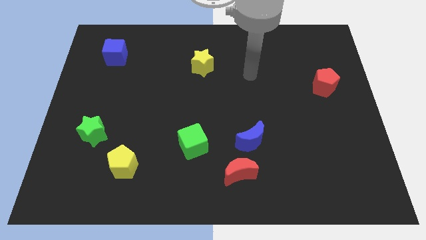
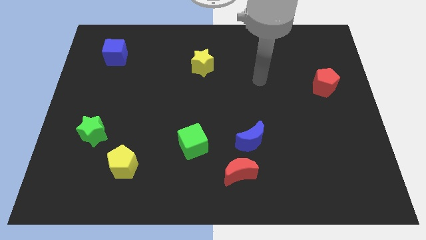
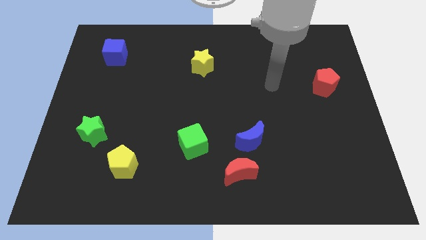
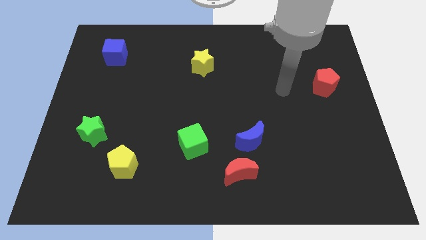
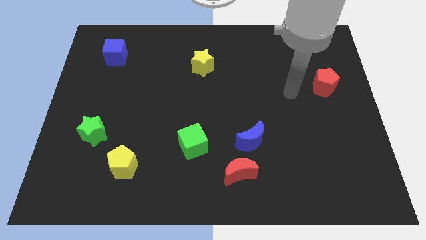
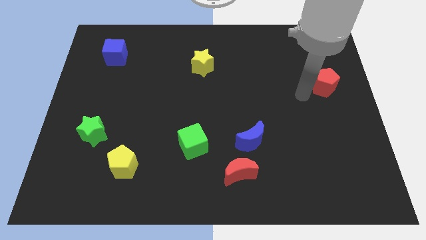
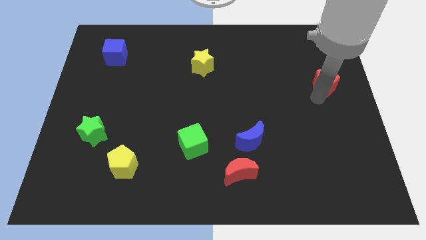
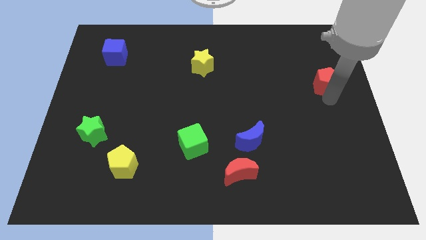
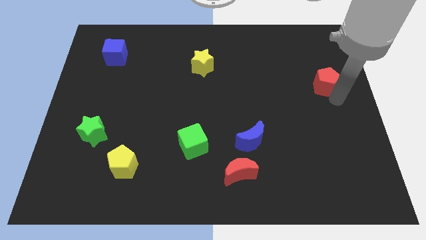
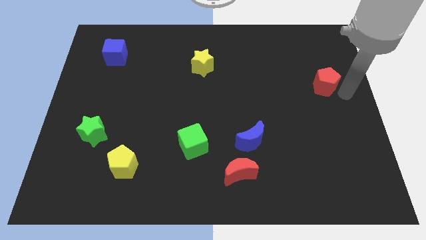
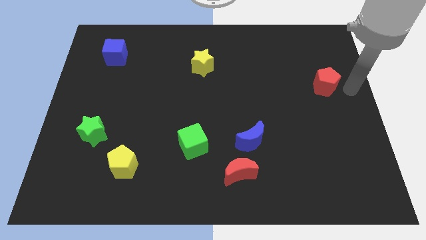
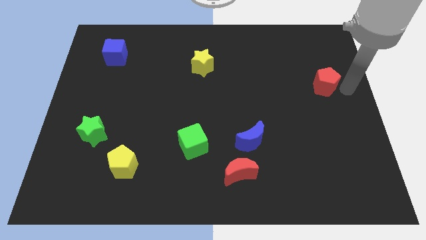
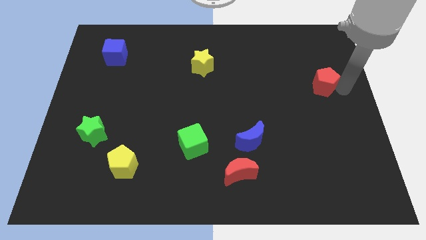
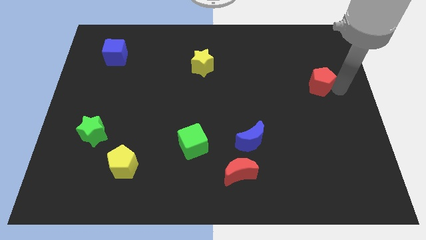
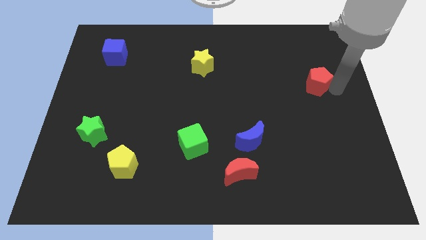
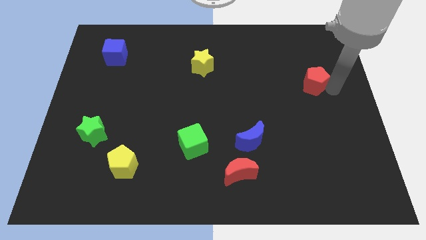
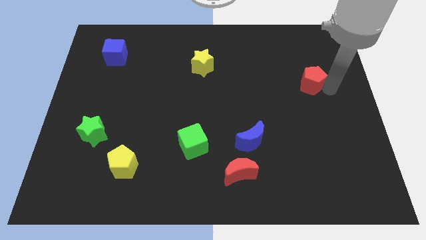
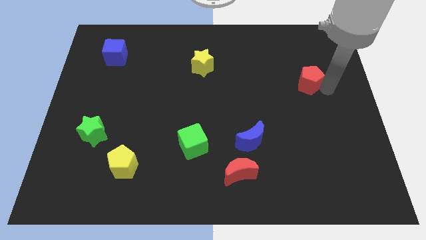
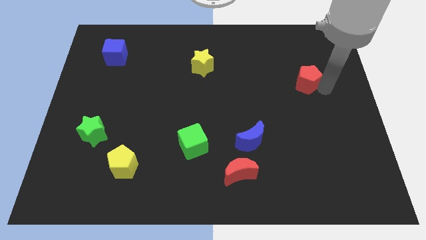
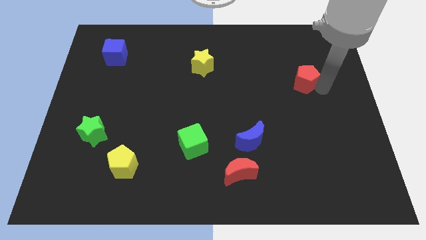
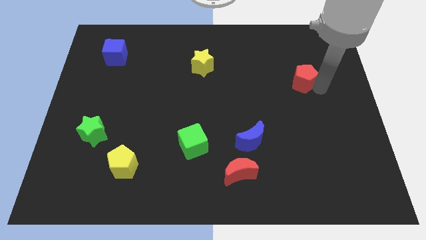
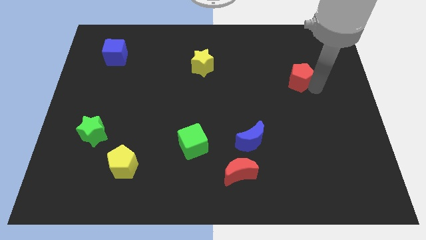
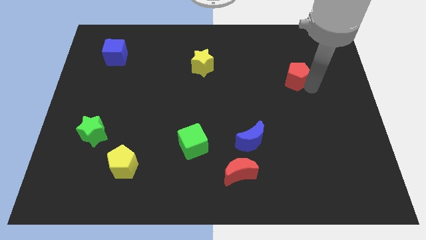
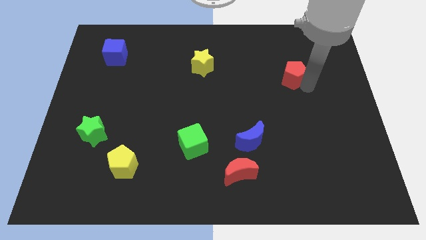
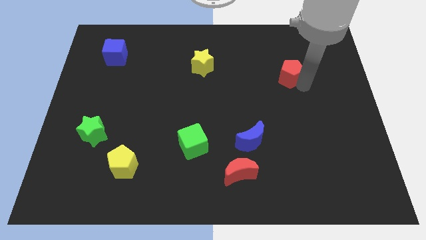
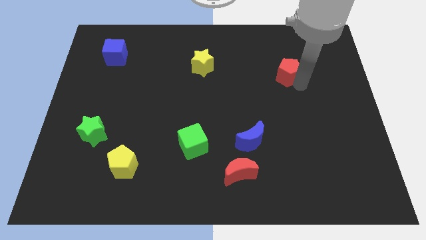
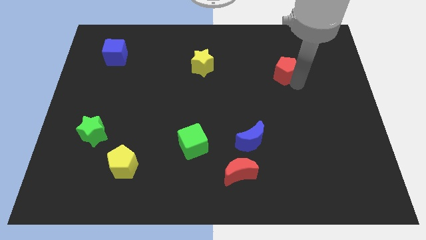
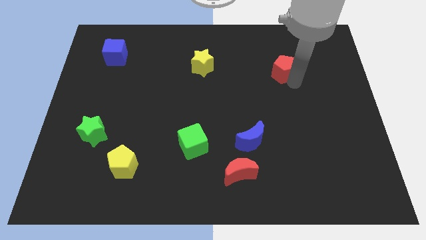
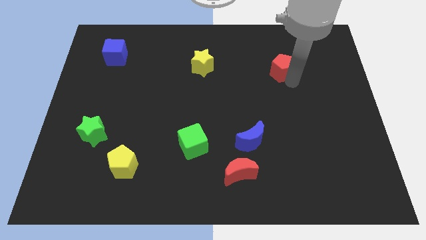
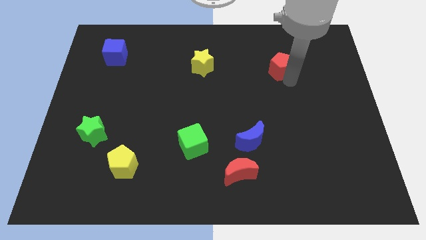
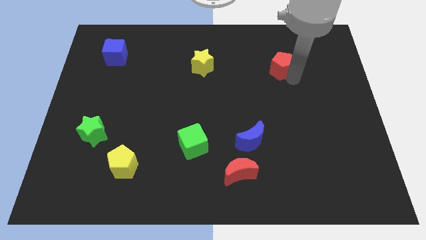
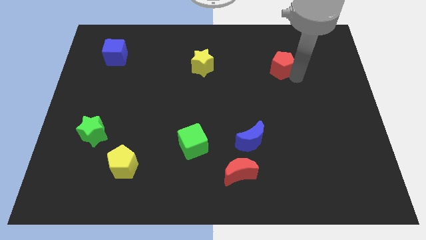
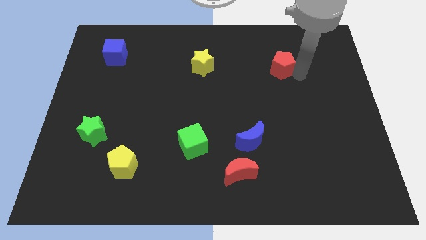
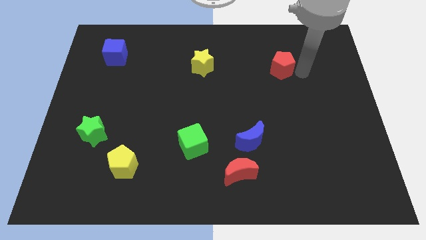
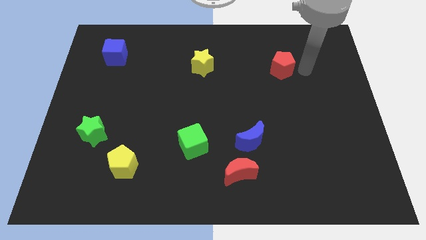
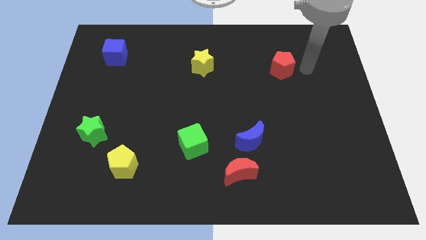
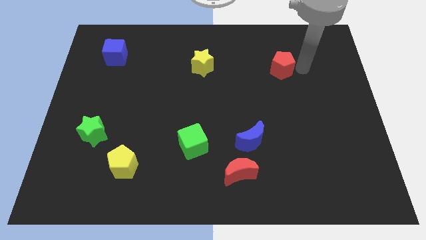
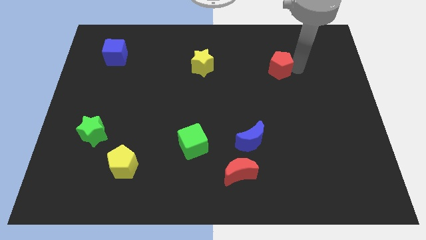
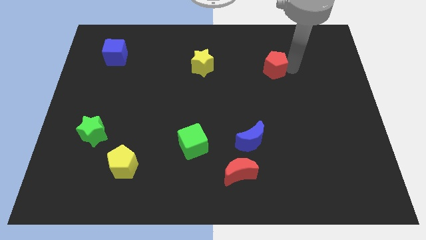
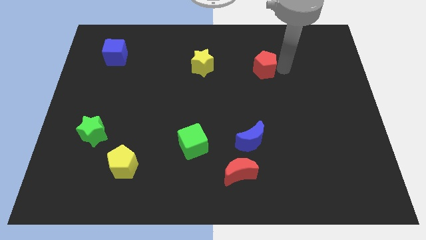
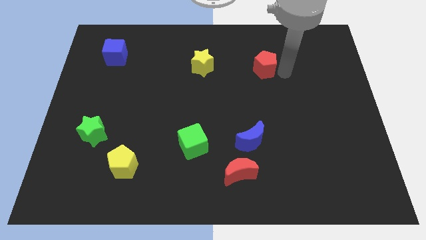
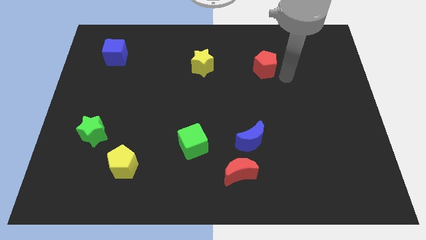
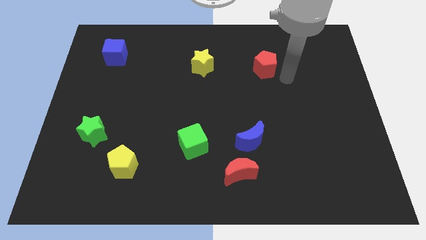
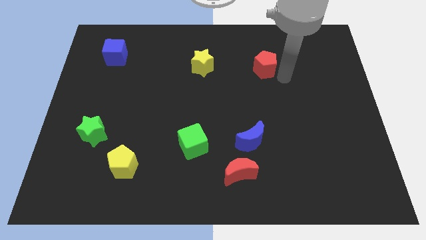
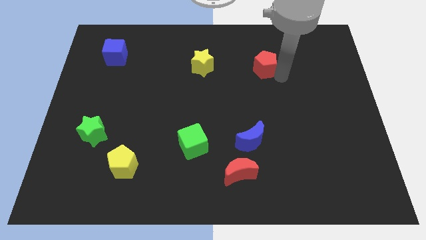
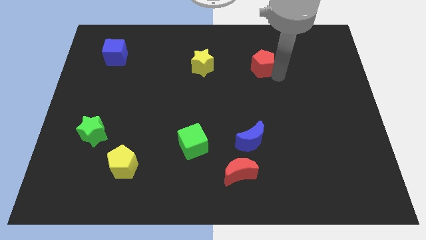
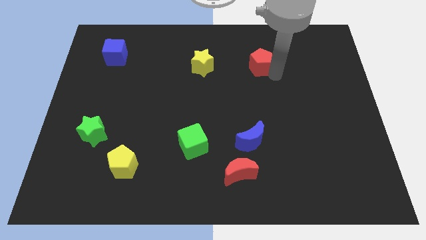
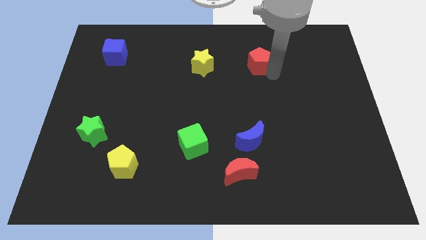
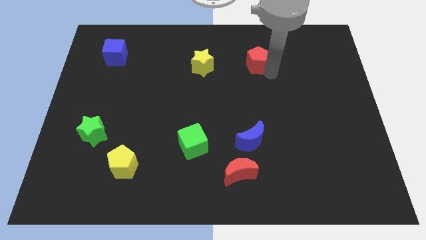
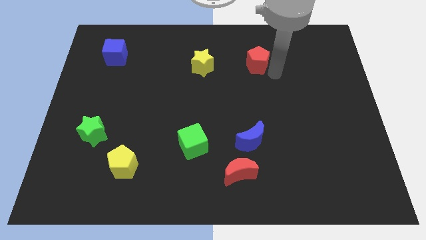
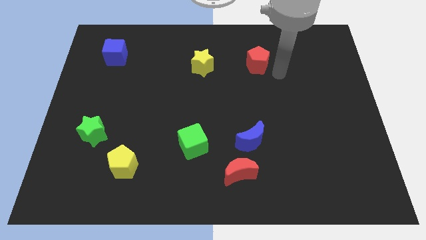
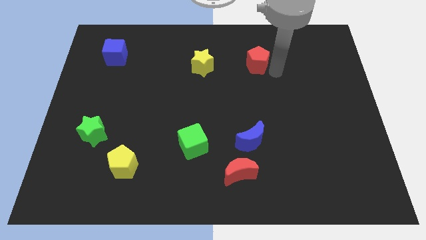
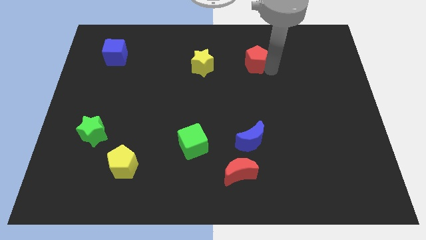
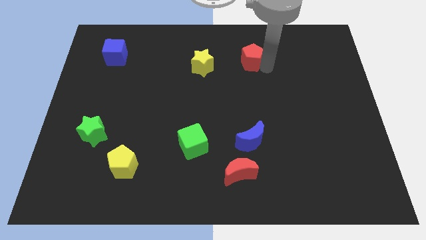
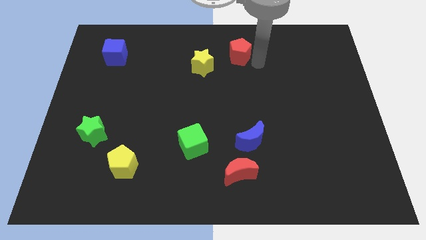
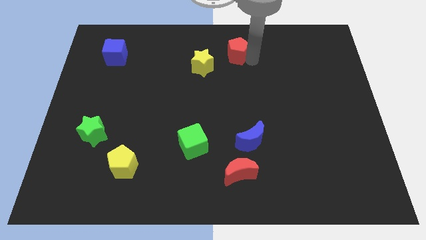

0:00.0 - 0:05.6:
put the red pentagon to the top side
